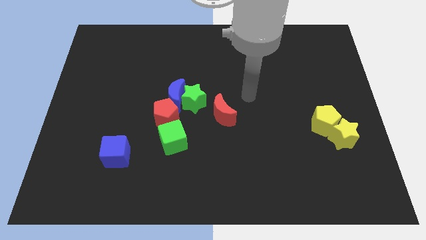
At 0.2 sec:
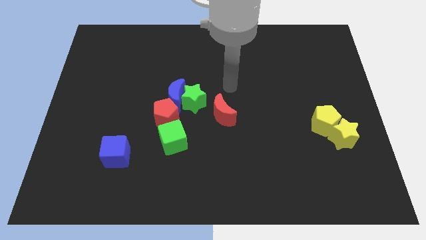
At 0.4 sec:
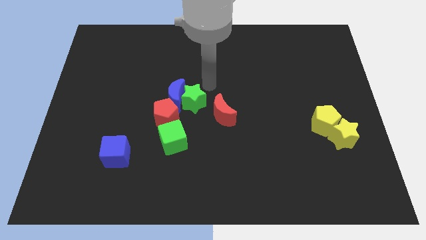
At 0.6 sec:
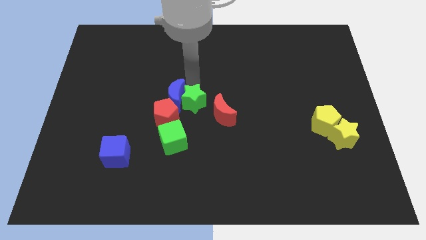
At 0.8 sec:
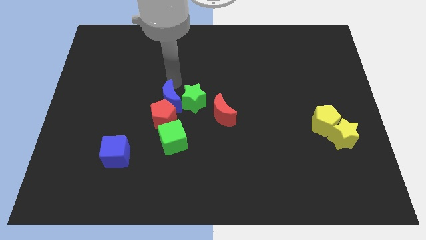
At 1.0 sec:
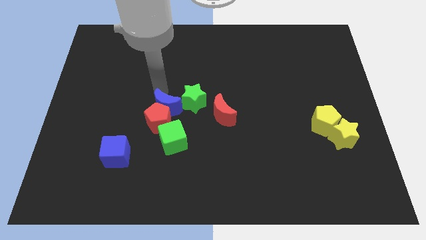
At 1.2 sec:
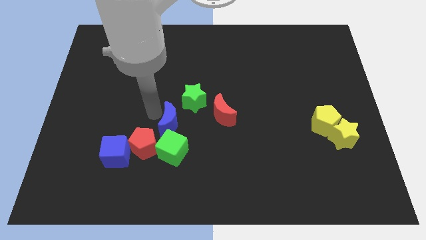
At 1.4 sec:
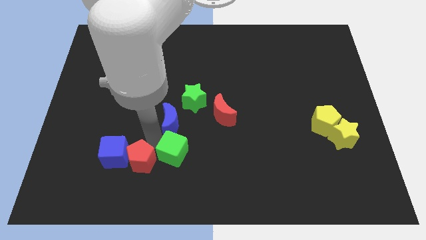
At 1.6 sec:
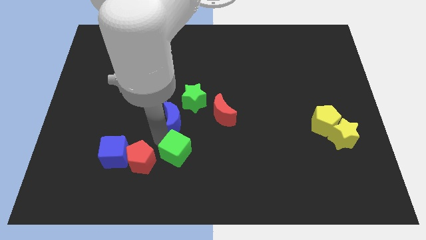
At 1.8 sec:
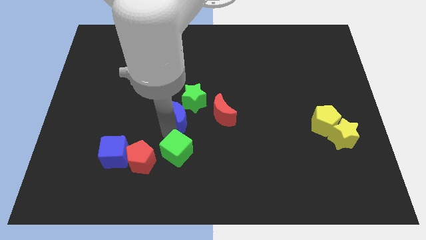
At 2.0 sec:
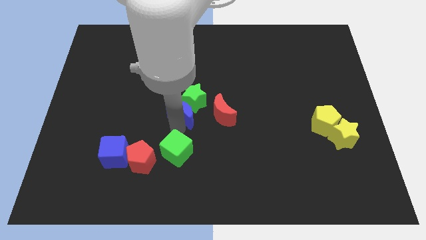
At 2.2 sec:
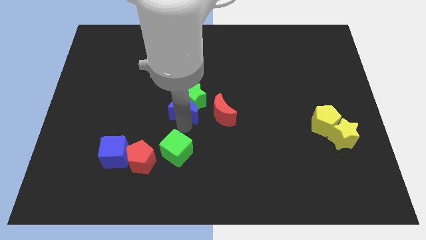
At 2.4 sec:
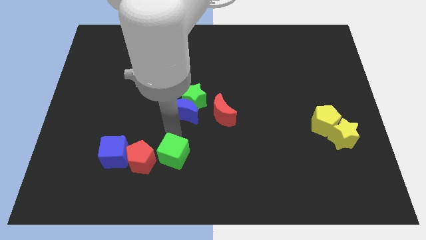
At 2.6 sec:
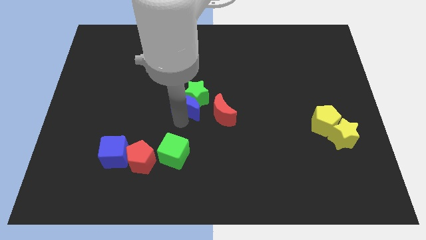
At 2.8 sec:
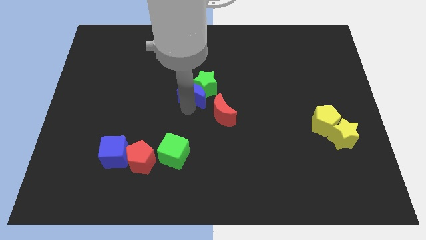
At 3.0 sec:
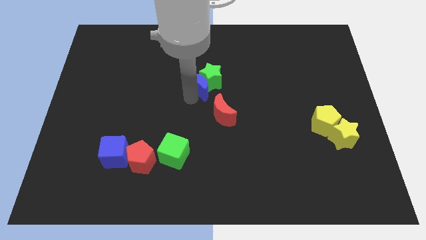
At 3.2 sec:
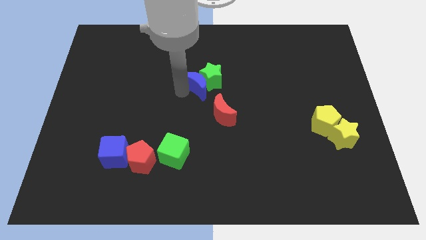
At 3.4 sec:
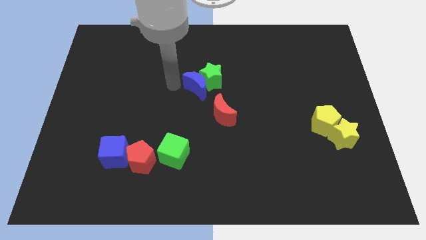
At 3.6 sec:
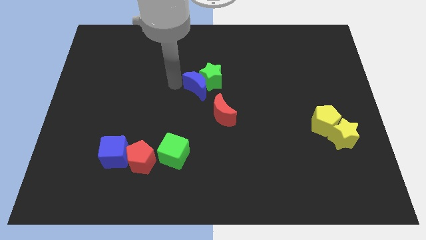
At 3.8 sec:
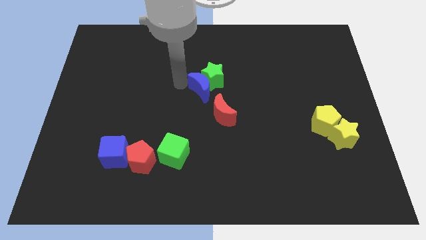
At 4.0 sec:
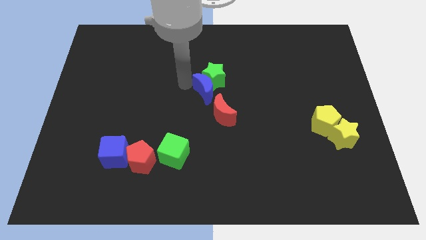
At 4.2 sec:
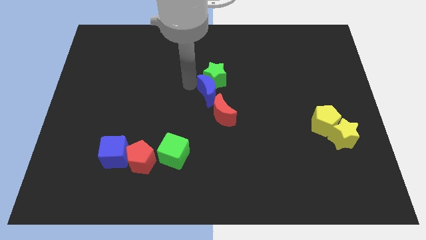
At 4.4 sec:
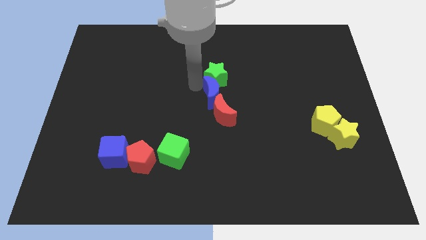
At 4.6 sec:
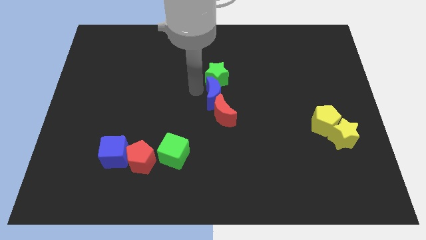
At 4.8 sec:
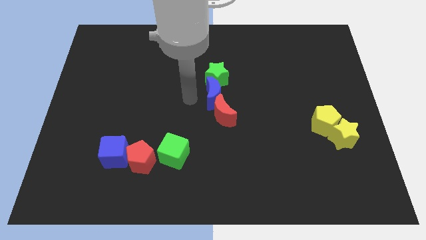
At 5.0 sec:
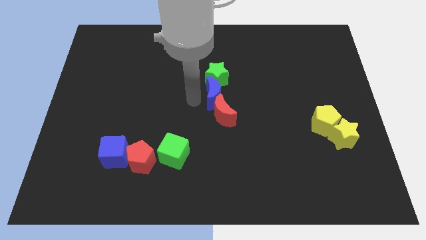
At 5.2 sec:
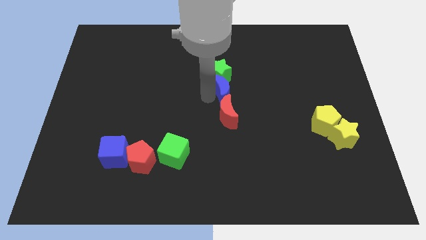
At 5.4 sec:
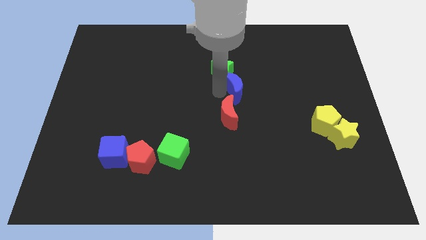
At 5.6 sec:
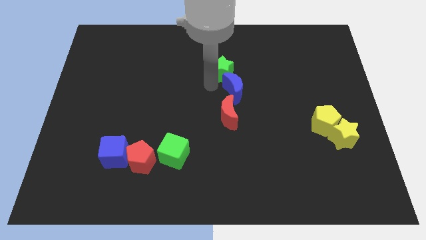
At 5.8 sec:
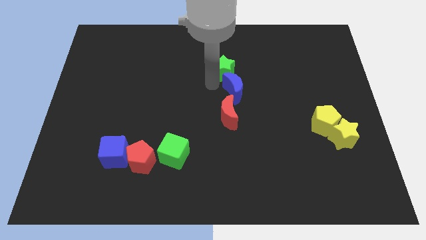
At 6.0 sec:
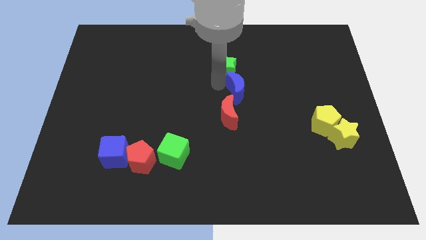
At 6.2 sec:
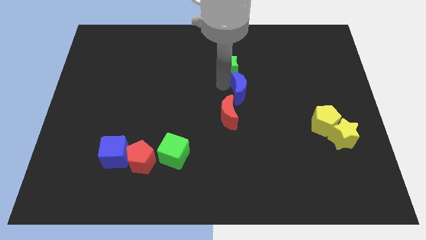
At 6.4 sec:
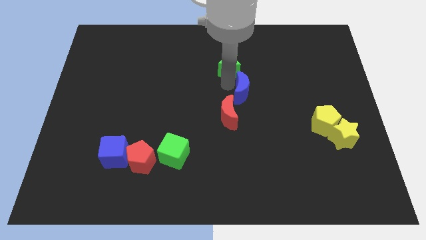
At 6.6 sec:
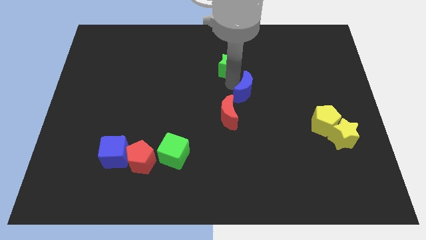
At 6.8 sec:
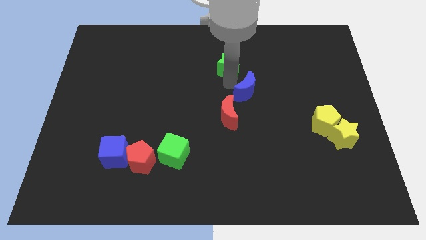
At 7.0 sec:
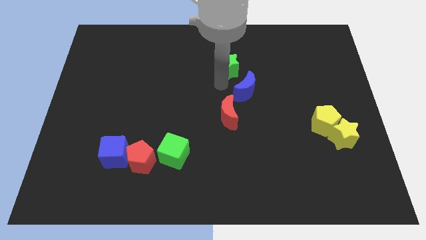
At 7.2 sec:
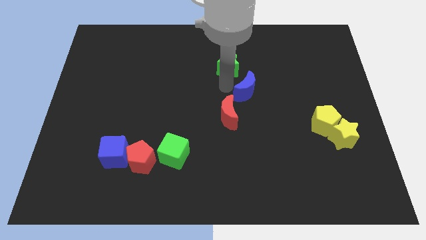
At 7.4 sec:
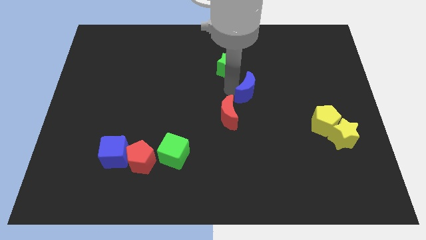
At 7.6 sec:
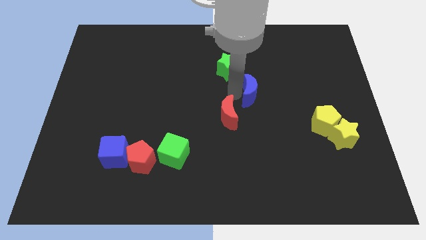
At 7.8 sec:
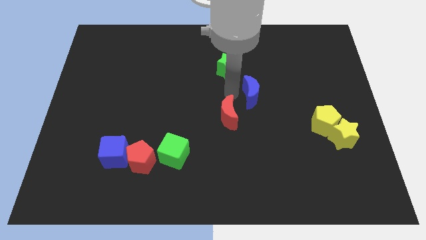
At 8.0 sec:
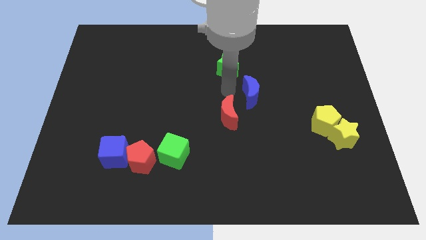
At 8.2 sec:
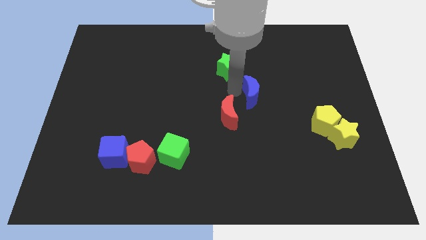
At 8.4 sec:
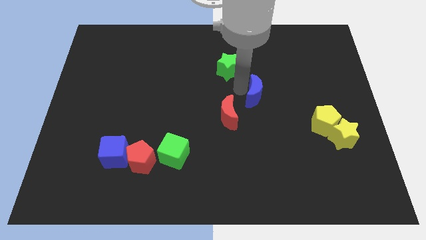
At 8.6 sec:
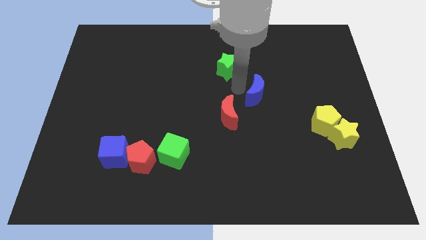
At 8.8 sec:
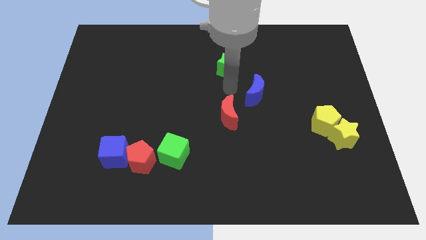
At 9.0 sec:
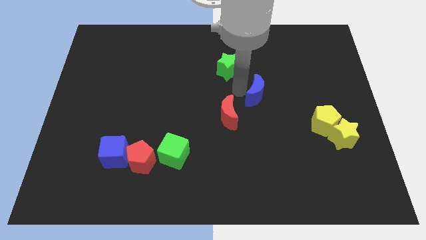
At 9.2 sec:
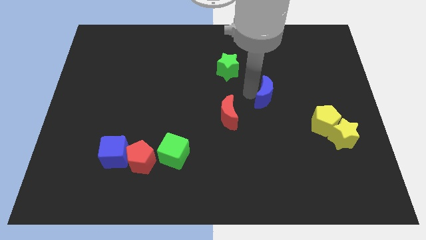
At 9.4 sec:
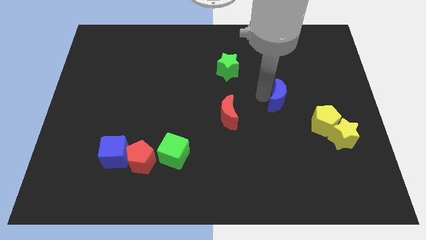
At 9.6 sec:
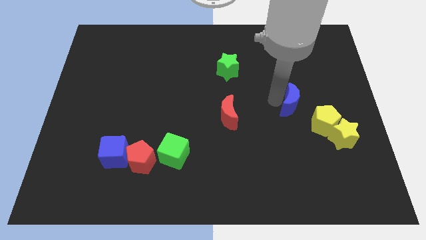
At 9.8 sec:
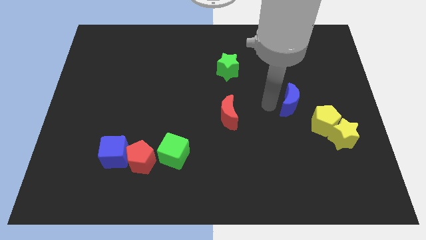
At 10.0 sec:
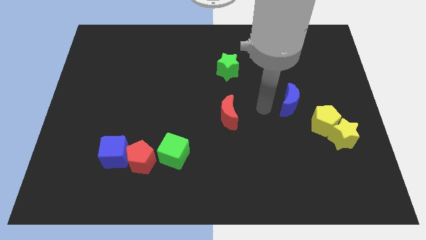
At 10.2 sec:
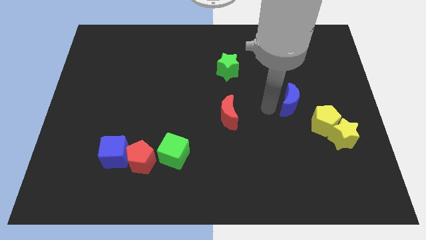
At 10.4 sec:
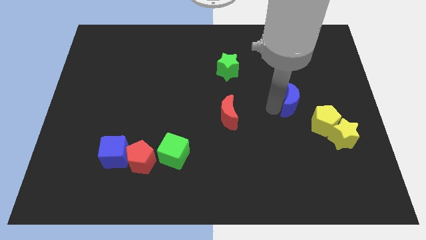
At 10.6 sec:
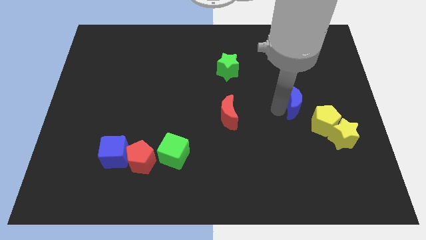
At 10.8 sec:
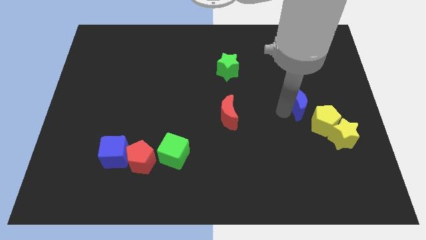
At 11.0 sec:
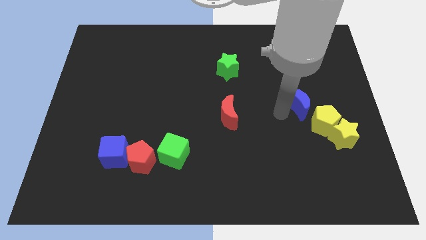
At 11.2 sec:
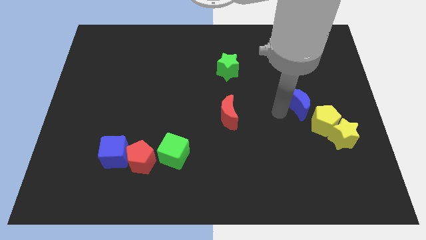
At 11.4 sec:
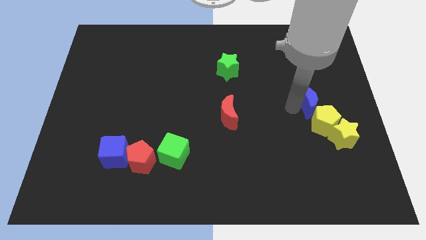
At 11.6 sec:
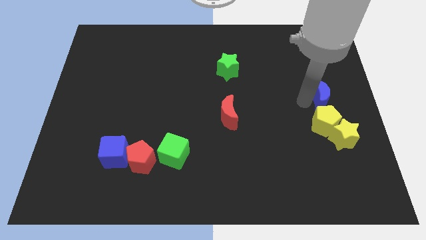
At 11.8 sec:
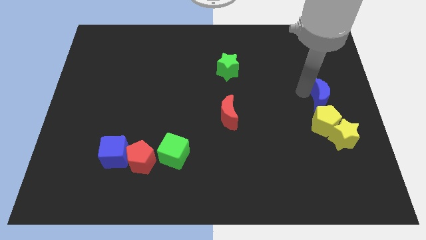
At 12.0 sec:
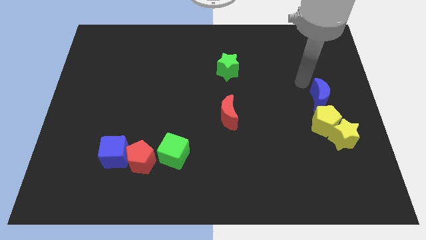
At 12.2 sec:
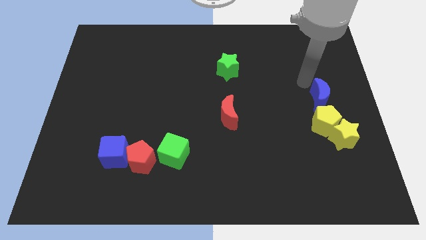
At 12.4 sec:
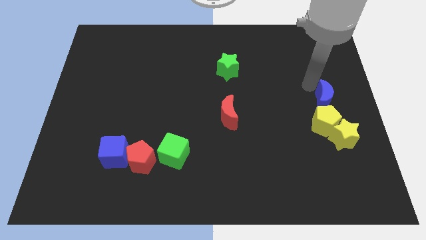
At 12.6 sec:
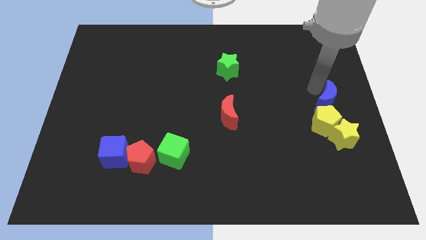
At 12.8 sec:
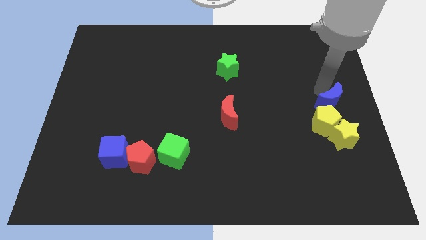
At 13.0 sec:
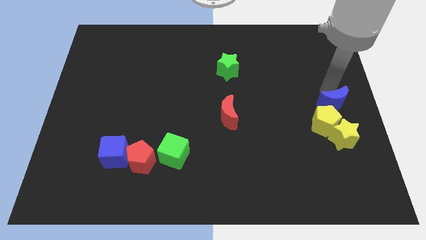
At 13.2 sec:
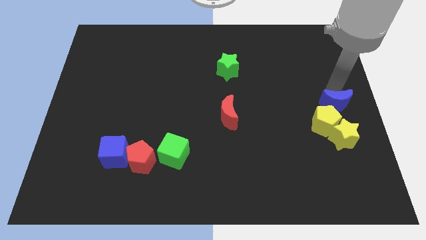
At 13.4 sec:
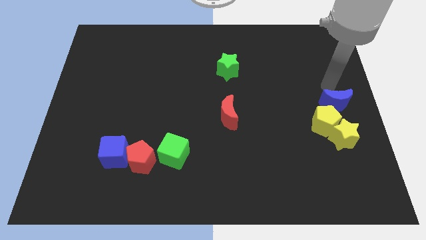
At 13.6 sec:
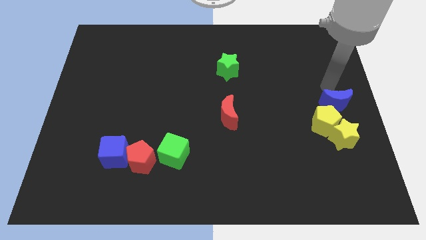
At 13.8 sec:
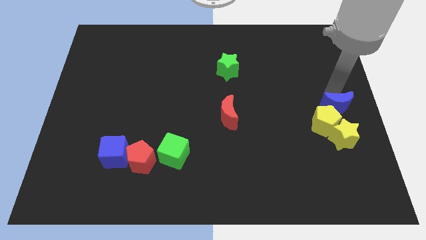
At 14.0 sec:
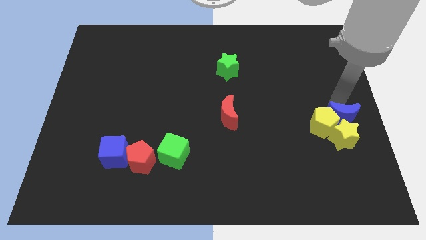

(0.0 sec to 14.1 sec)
move the blue moon next to the yellow star
